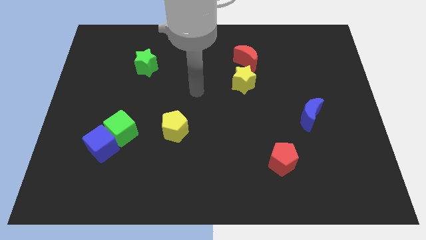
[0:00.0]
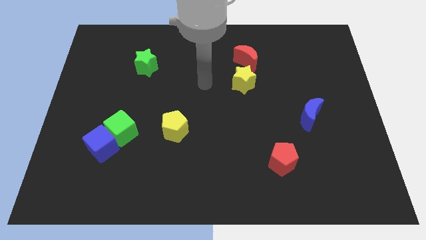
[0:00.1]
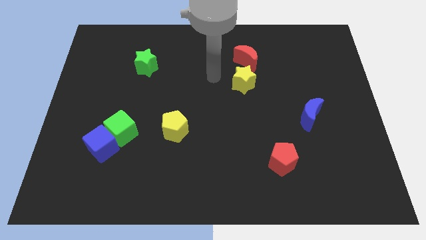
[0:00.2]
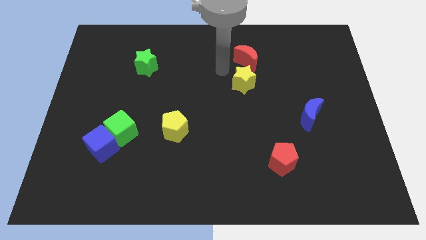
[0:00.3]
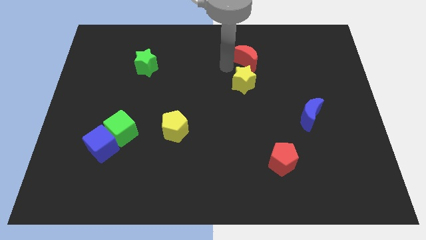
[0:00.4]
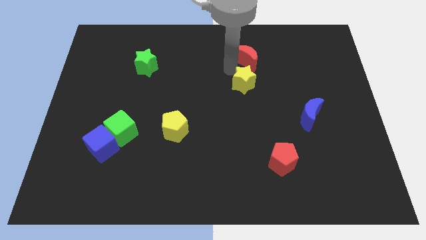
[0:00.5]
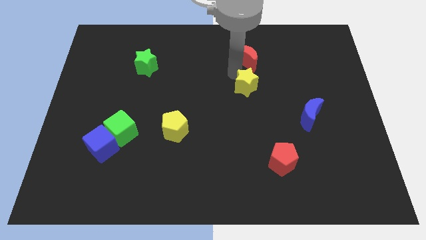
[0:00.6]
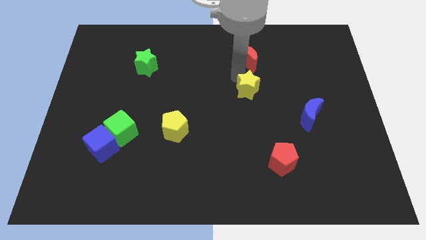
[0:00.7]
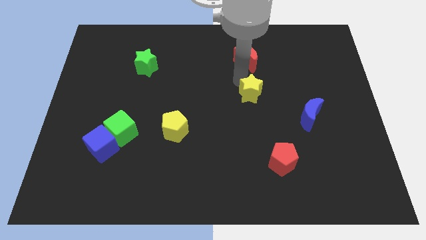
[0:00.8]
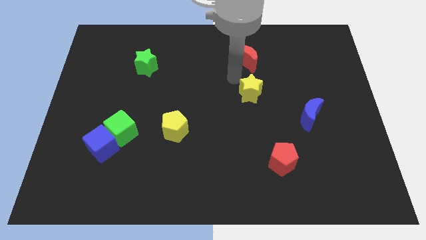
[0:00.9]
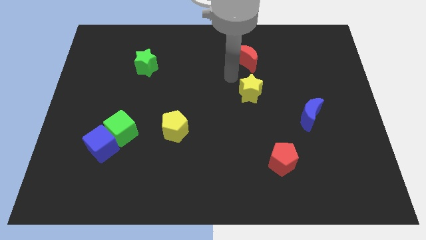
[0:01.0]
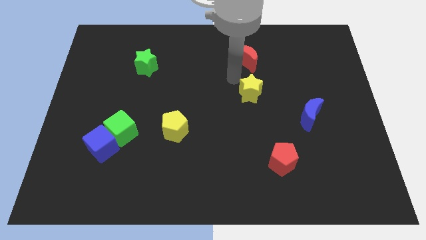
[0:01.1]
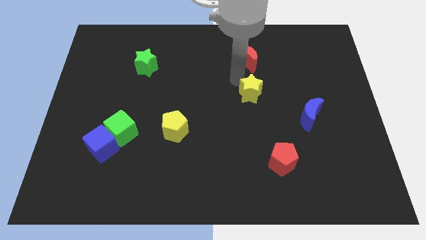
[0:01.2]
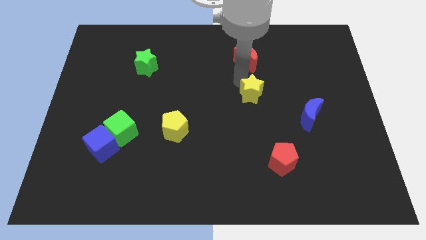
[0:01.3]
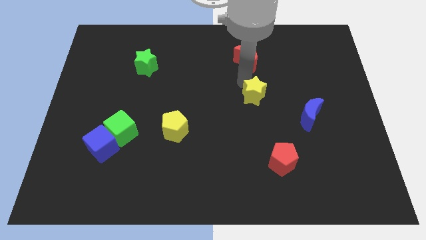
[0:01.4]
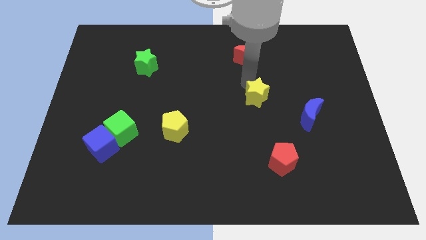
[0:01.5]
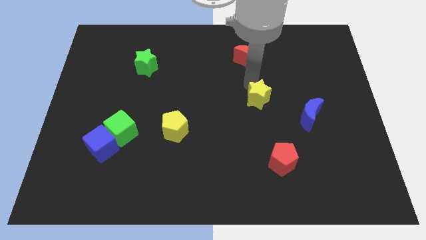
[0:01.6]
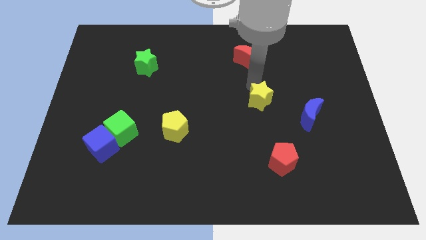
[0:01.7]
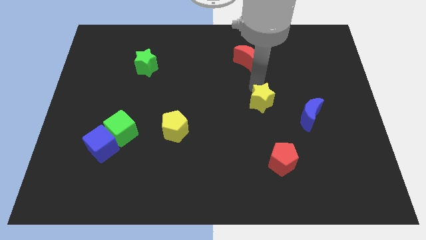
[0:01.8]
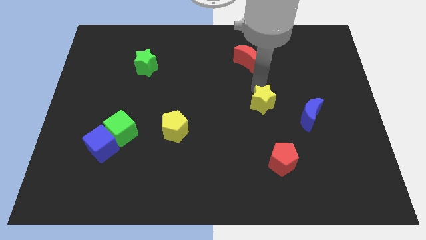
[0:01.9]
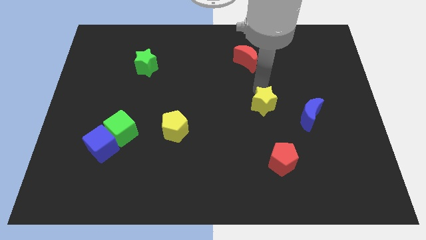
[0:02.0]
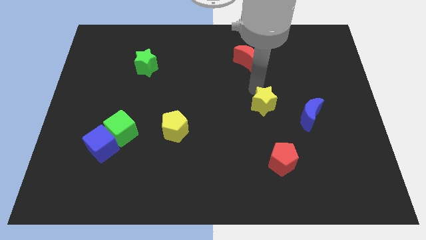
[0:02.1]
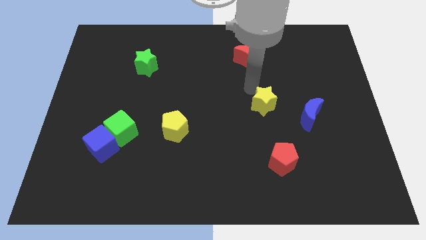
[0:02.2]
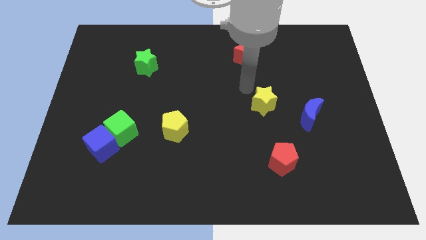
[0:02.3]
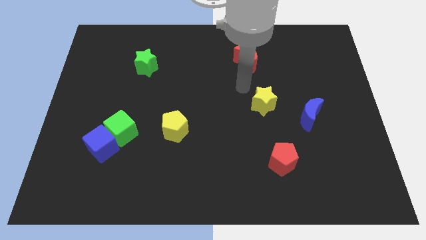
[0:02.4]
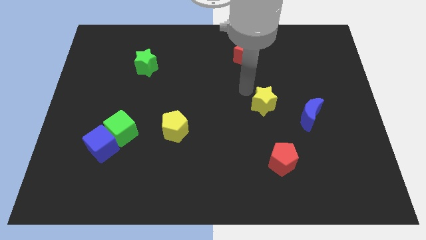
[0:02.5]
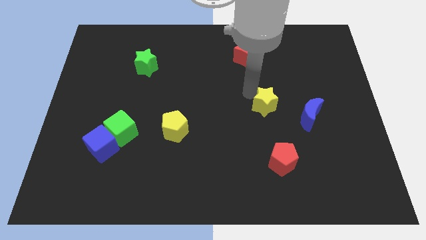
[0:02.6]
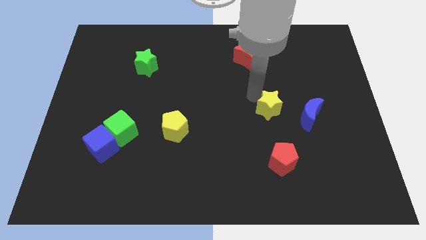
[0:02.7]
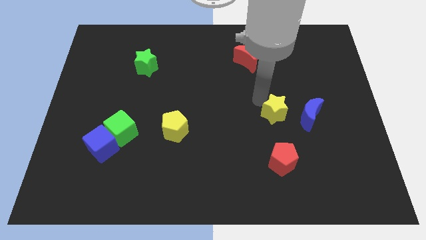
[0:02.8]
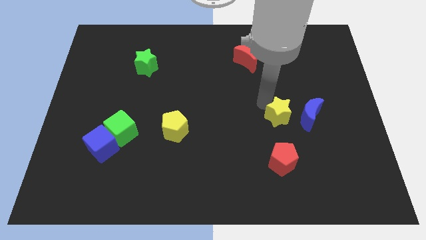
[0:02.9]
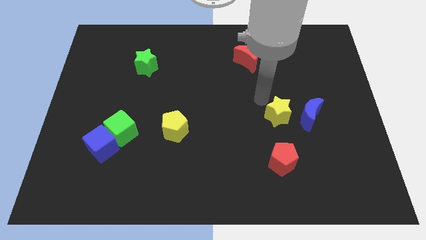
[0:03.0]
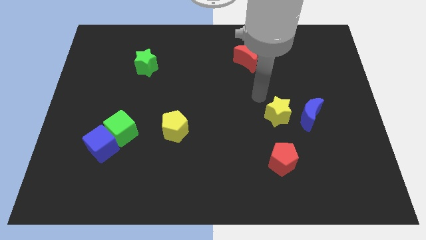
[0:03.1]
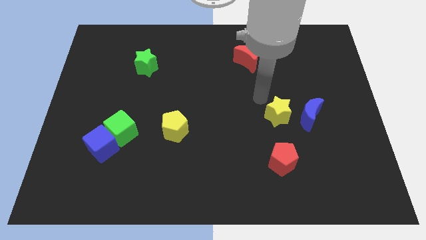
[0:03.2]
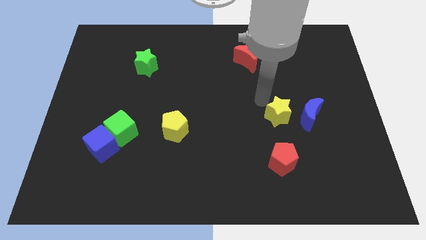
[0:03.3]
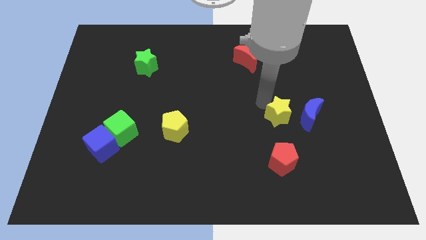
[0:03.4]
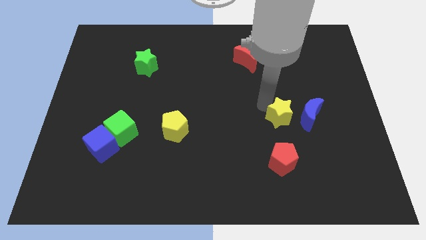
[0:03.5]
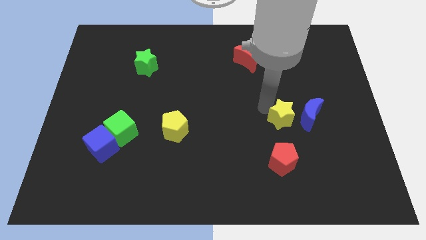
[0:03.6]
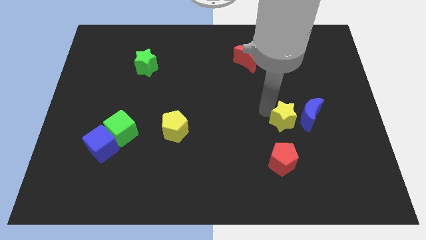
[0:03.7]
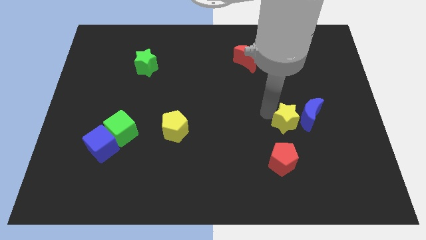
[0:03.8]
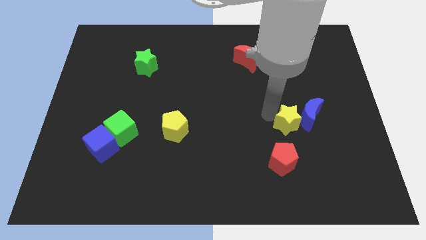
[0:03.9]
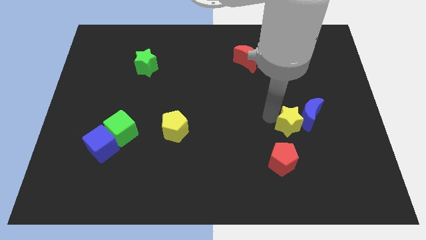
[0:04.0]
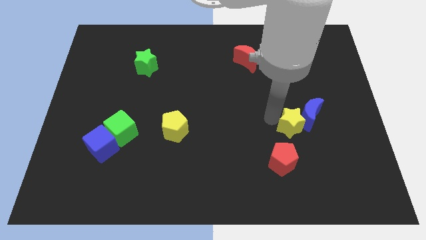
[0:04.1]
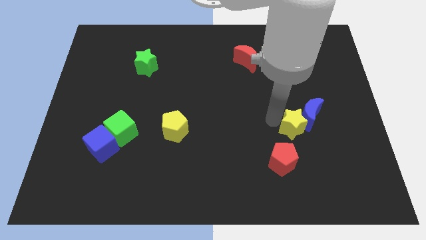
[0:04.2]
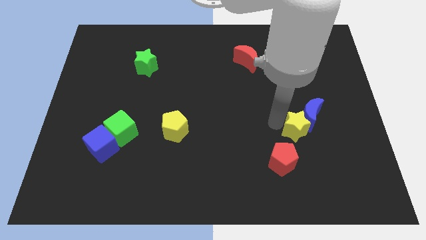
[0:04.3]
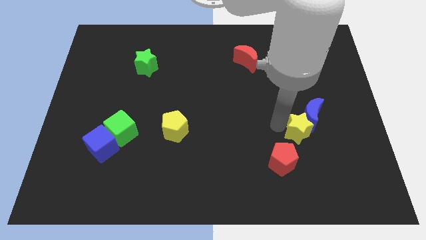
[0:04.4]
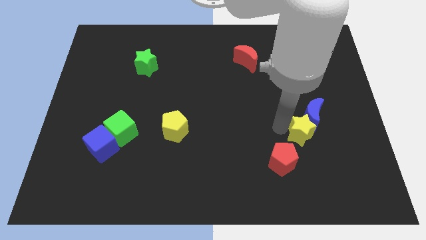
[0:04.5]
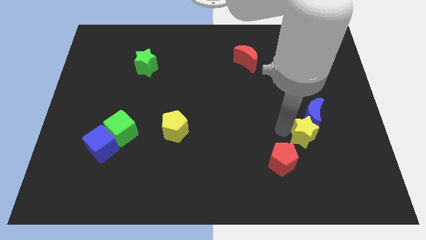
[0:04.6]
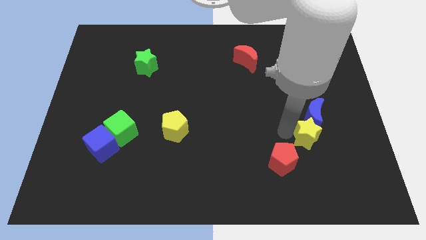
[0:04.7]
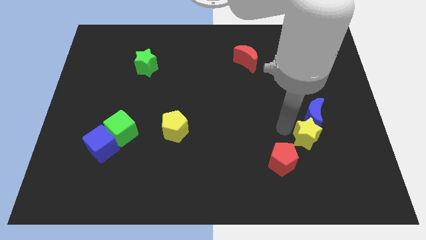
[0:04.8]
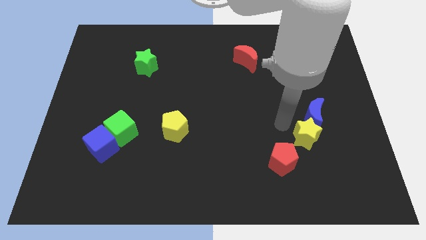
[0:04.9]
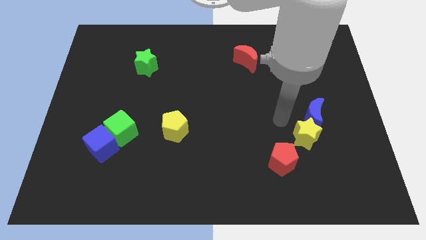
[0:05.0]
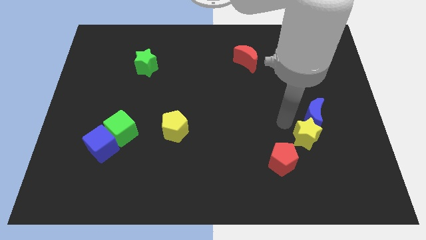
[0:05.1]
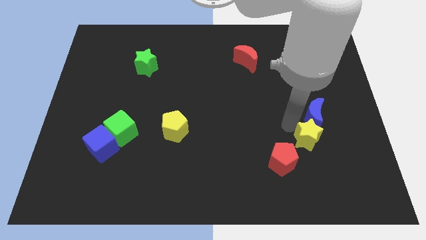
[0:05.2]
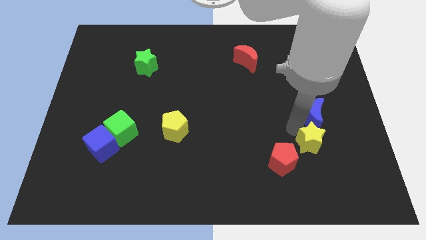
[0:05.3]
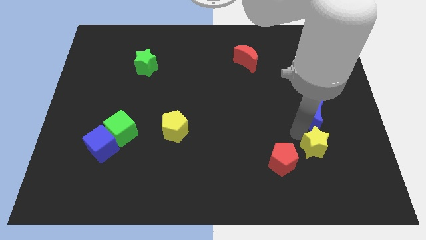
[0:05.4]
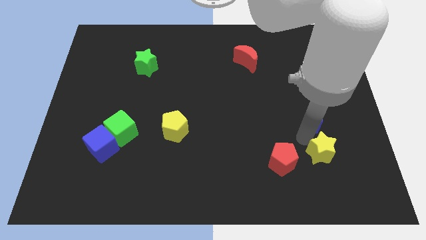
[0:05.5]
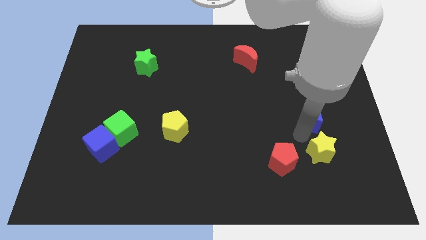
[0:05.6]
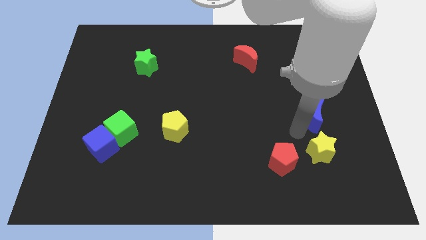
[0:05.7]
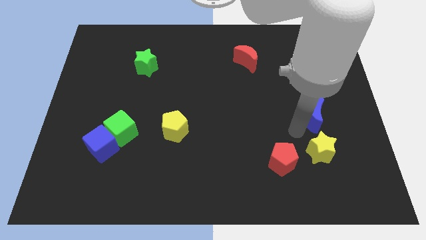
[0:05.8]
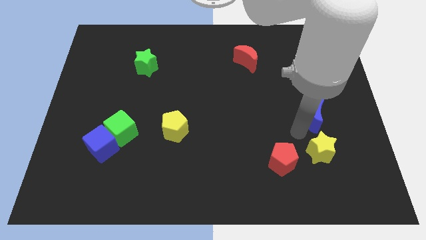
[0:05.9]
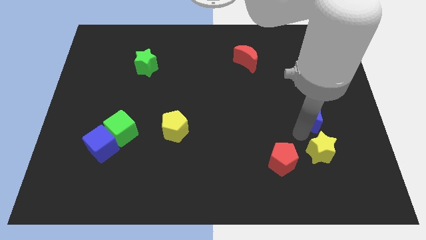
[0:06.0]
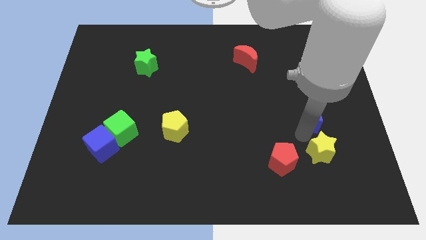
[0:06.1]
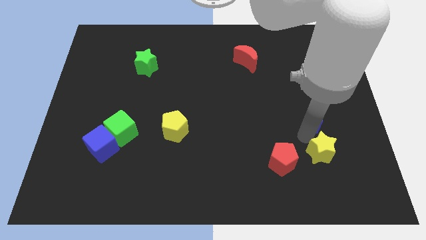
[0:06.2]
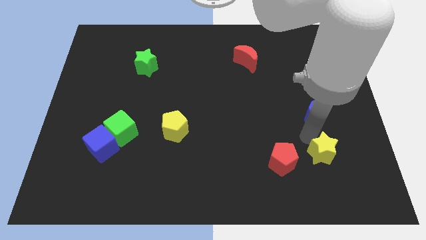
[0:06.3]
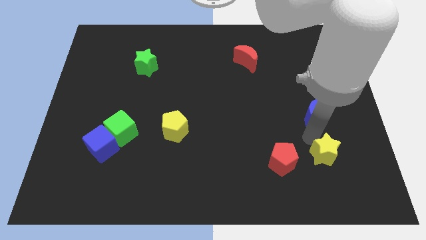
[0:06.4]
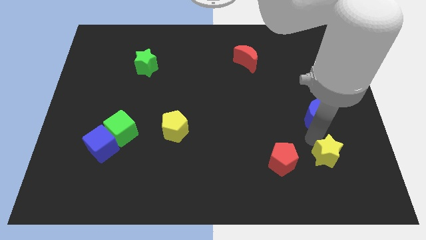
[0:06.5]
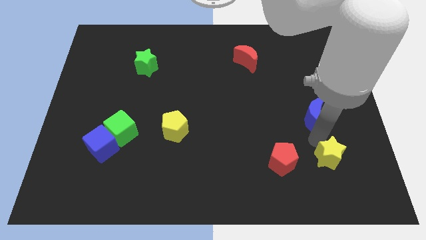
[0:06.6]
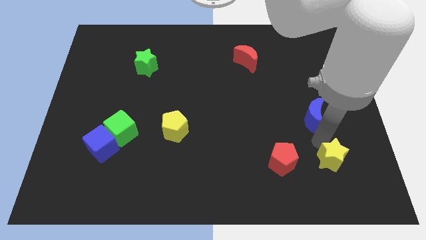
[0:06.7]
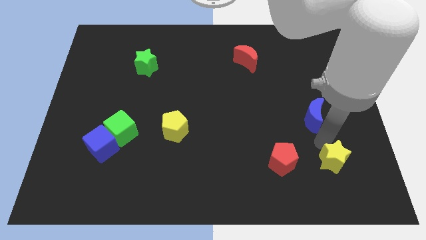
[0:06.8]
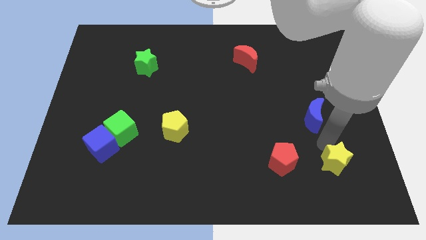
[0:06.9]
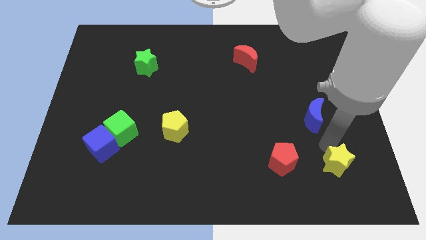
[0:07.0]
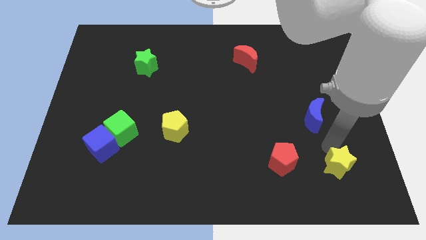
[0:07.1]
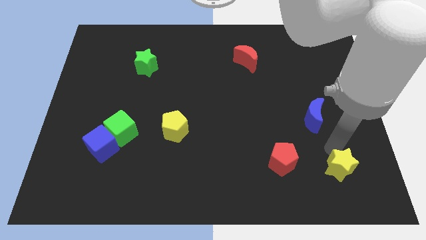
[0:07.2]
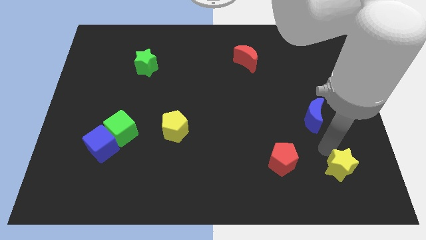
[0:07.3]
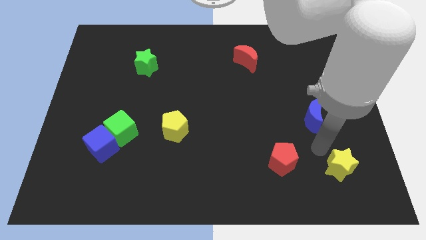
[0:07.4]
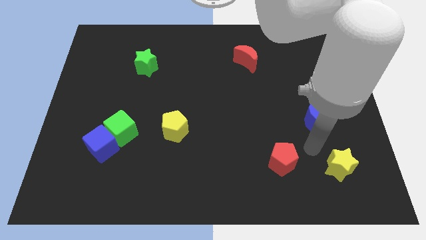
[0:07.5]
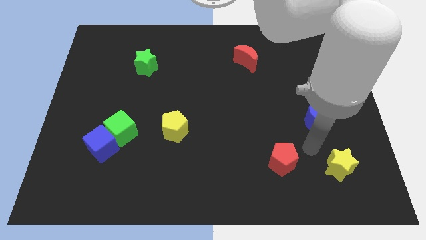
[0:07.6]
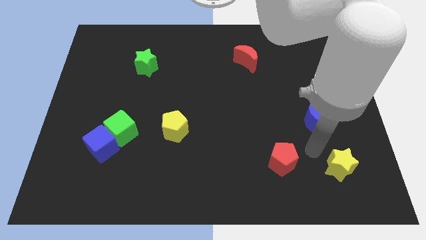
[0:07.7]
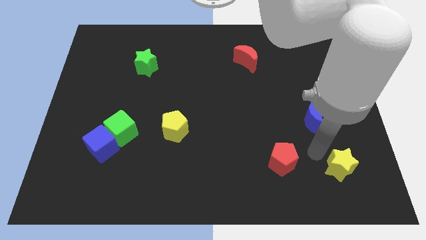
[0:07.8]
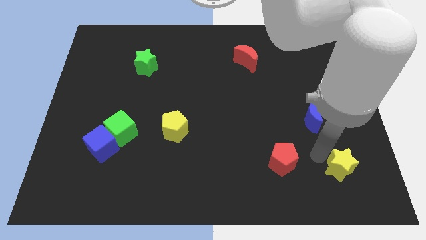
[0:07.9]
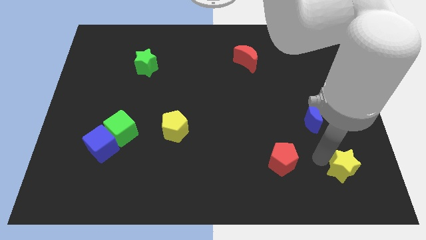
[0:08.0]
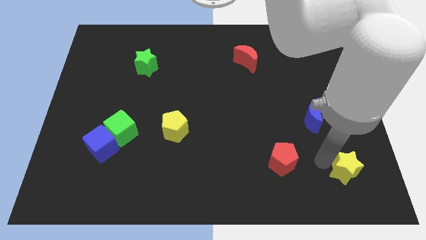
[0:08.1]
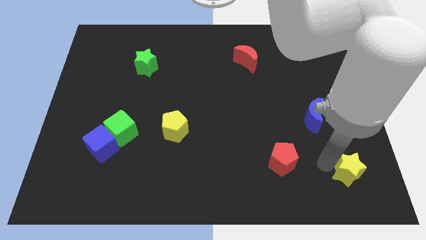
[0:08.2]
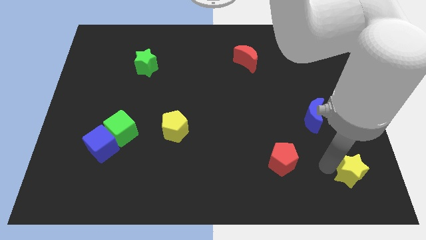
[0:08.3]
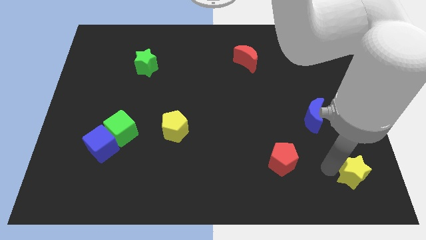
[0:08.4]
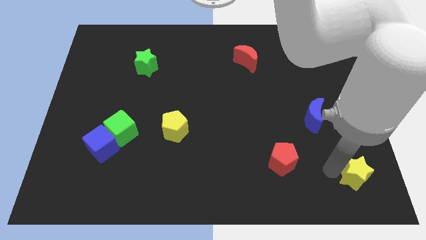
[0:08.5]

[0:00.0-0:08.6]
push the yellow star to the bottom right of the board
